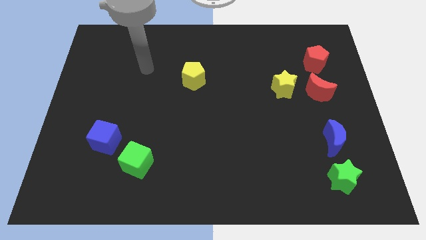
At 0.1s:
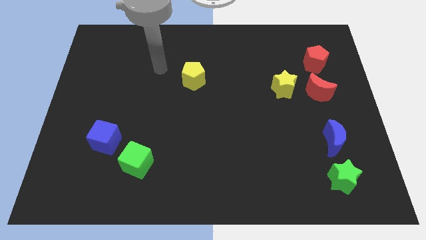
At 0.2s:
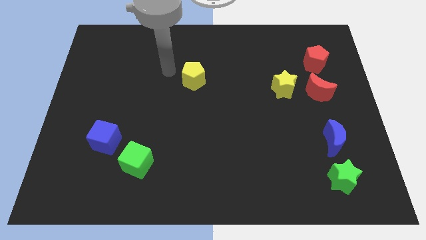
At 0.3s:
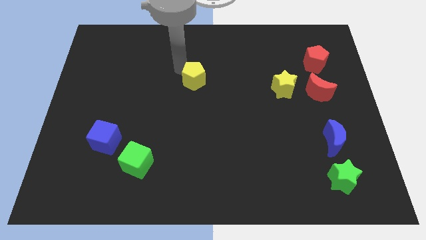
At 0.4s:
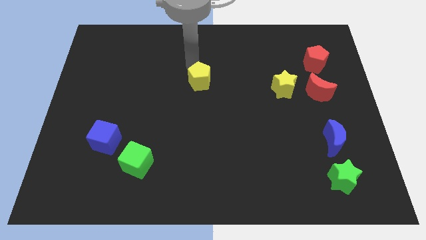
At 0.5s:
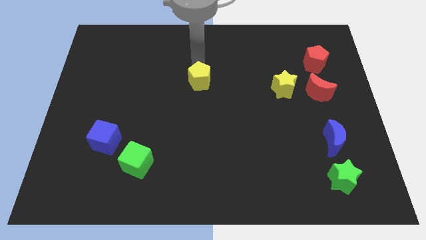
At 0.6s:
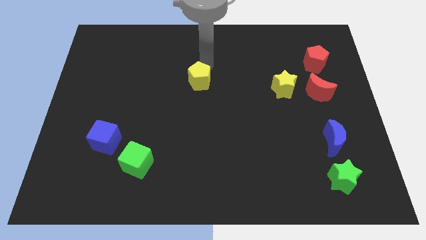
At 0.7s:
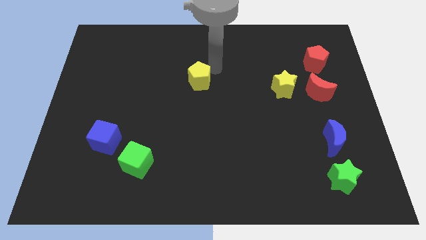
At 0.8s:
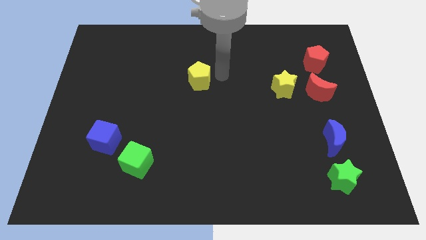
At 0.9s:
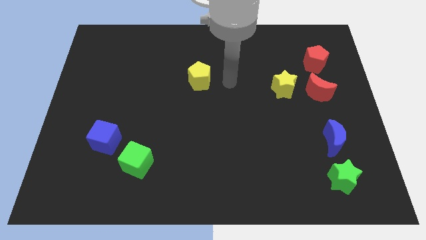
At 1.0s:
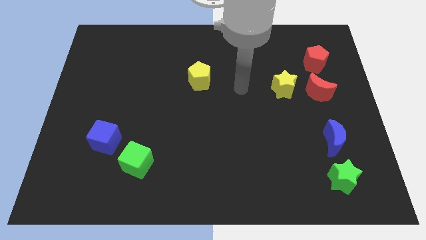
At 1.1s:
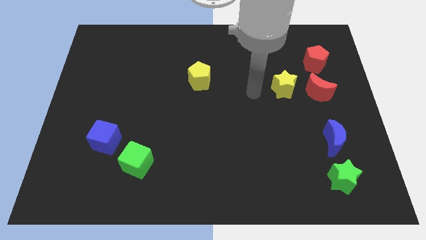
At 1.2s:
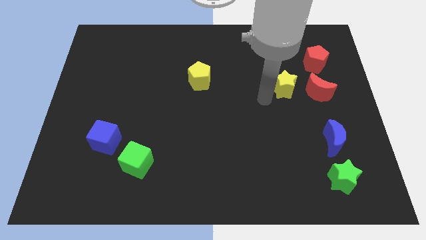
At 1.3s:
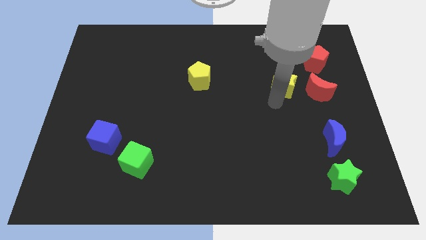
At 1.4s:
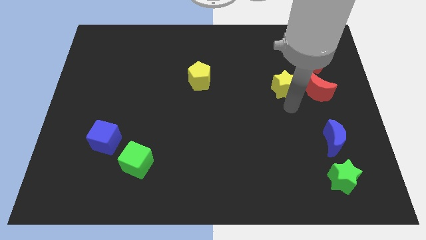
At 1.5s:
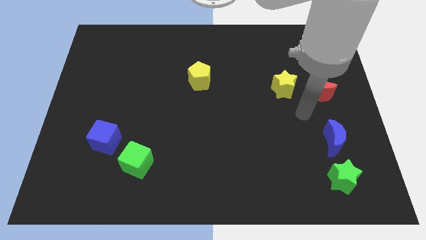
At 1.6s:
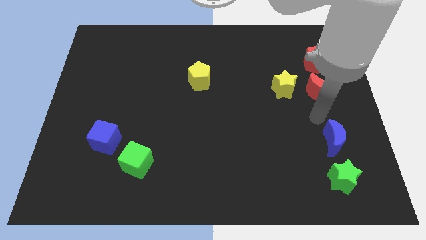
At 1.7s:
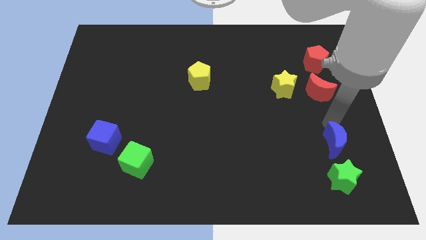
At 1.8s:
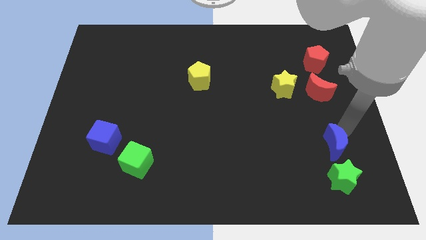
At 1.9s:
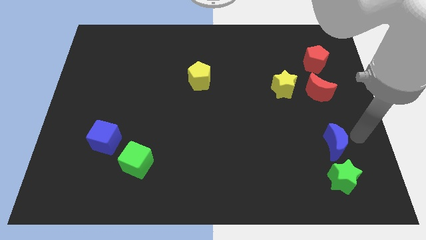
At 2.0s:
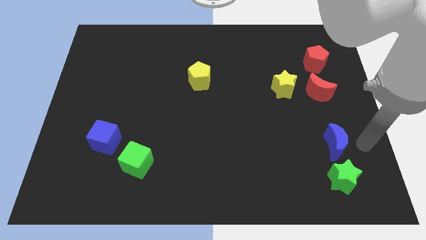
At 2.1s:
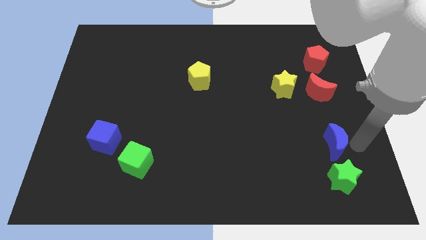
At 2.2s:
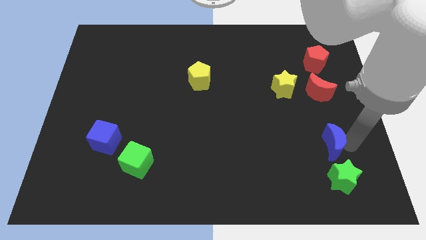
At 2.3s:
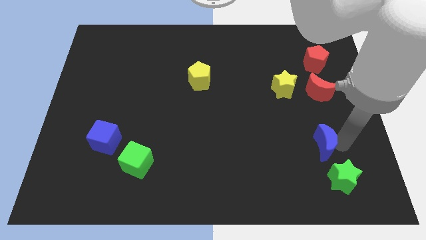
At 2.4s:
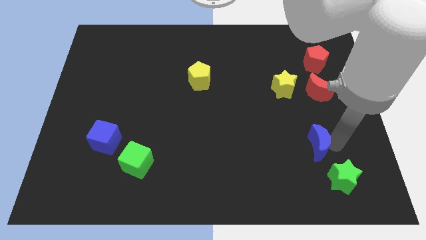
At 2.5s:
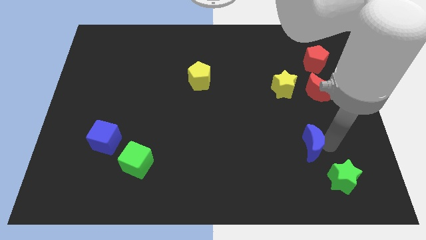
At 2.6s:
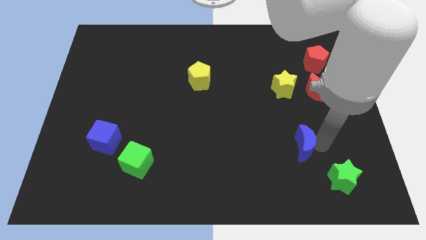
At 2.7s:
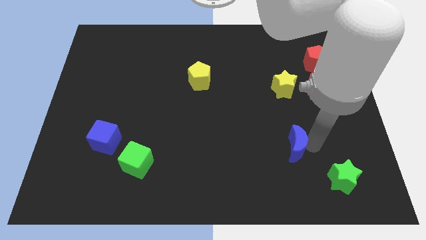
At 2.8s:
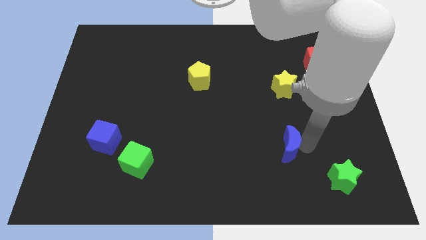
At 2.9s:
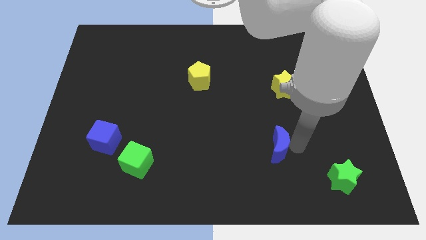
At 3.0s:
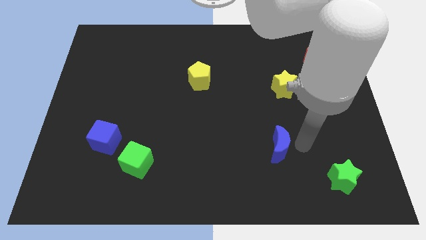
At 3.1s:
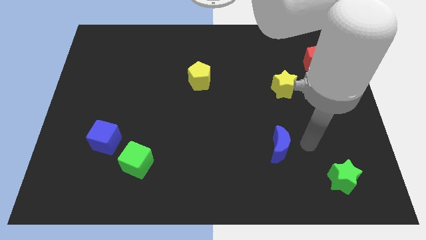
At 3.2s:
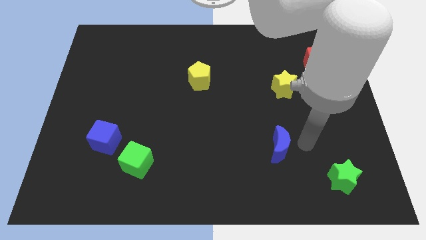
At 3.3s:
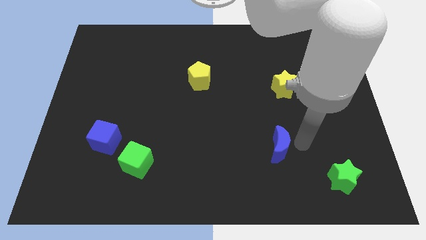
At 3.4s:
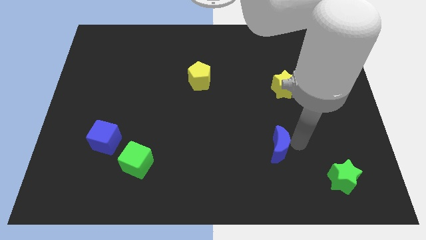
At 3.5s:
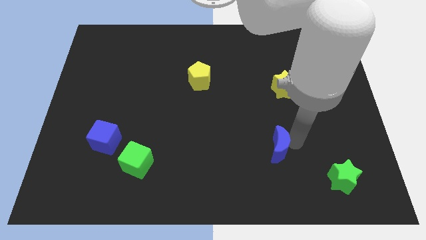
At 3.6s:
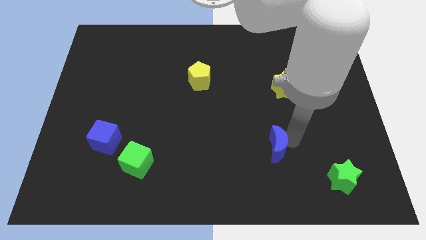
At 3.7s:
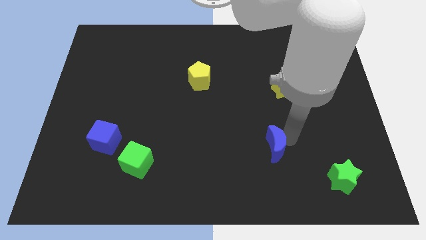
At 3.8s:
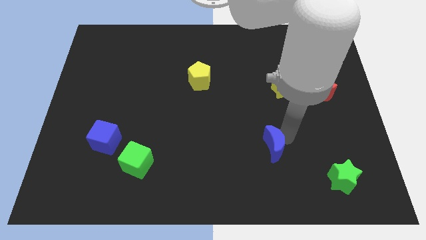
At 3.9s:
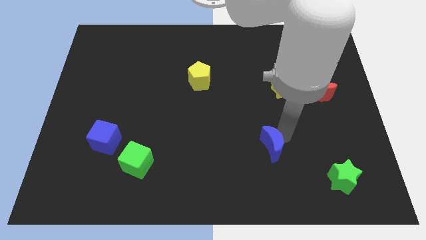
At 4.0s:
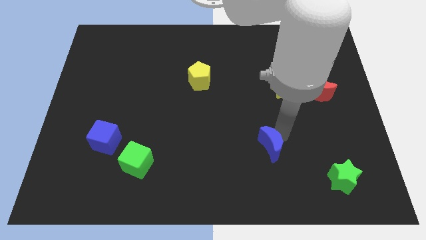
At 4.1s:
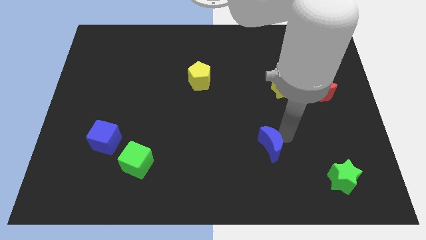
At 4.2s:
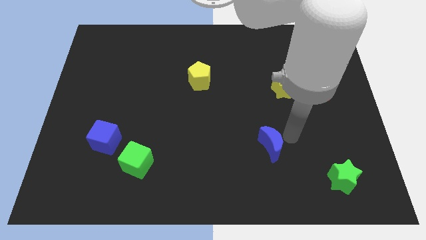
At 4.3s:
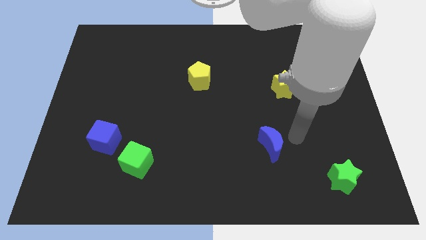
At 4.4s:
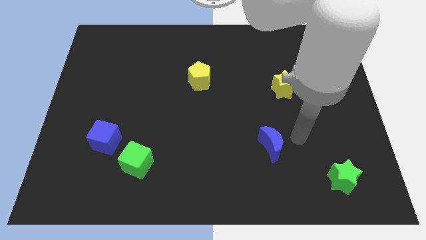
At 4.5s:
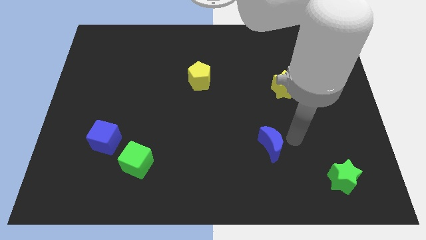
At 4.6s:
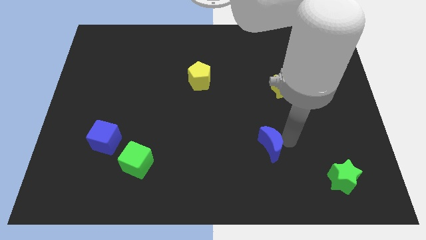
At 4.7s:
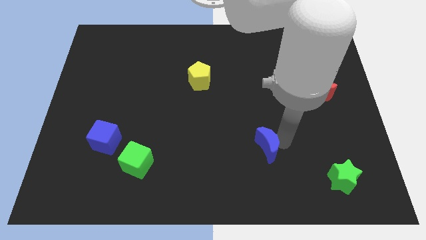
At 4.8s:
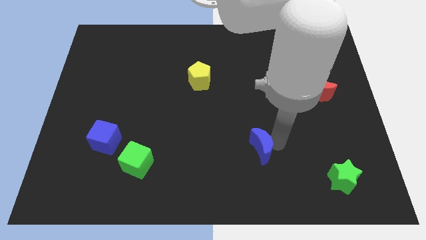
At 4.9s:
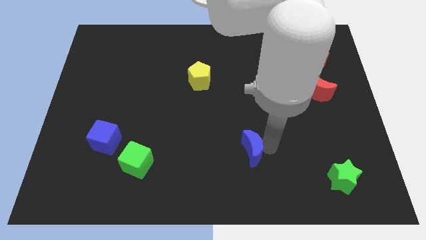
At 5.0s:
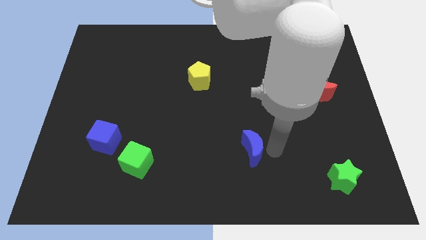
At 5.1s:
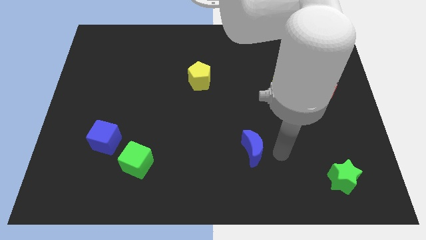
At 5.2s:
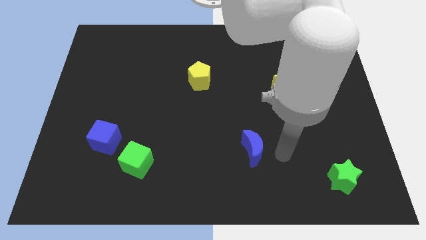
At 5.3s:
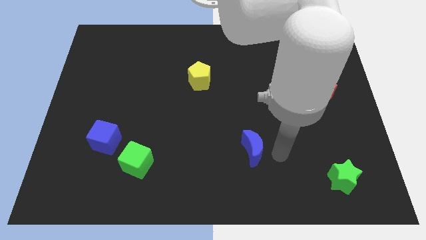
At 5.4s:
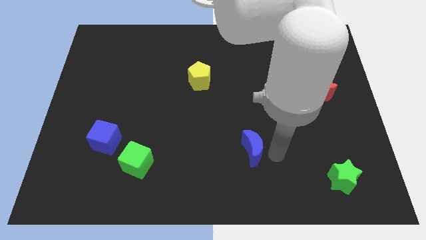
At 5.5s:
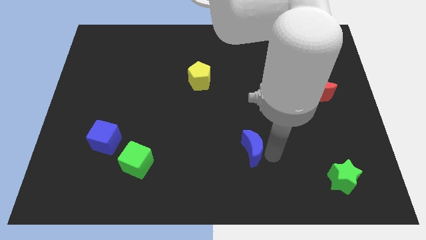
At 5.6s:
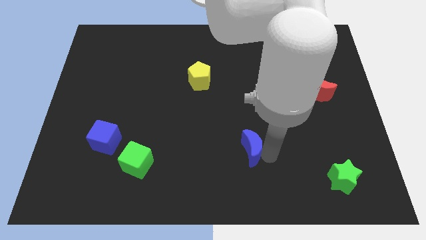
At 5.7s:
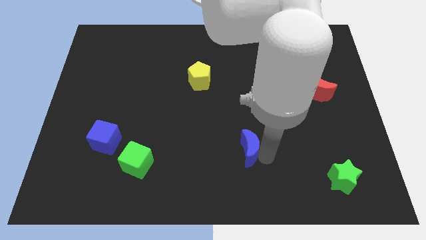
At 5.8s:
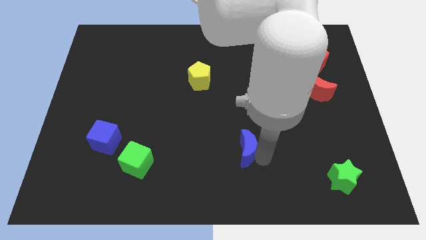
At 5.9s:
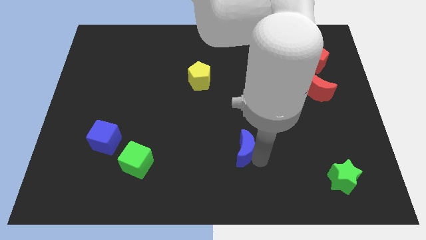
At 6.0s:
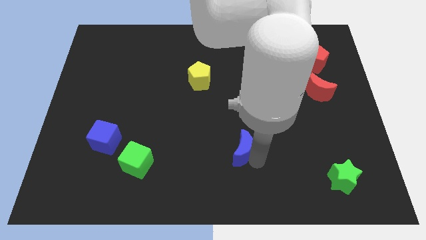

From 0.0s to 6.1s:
push the blue moon to the left

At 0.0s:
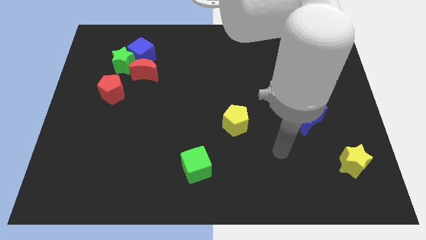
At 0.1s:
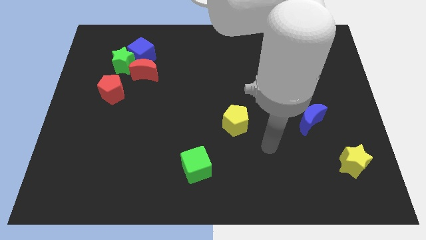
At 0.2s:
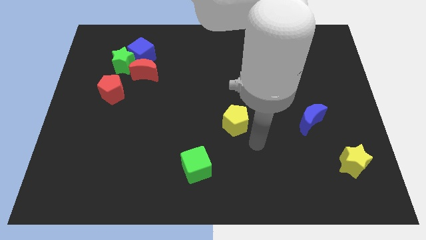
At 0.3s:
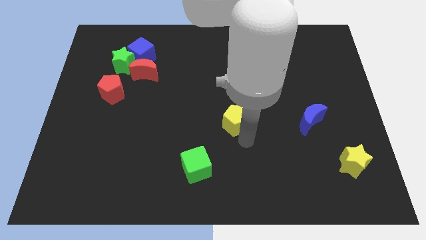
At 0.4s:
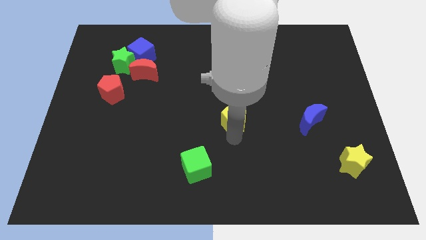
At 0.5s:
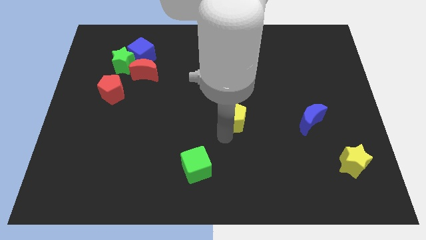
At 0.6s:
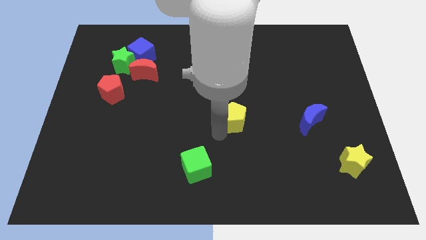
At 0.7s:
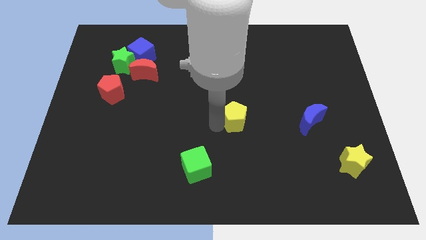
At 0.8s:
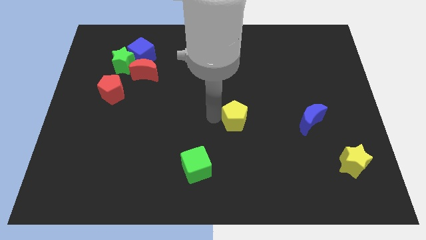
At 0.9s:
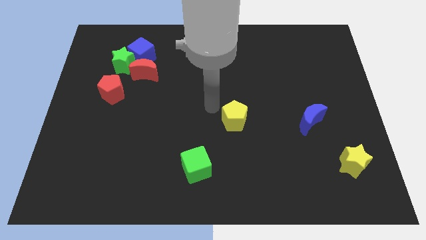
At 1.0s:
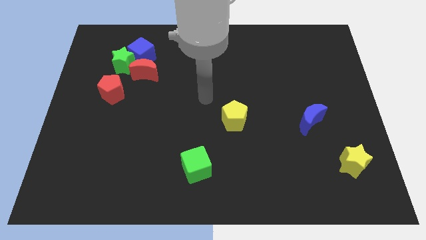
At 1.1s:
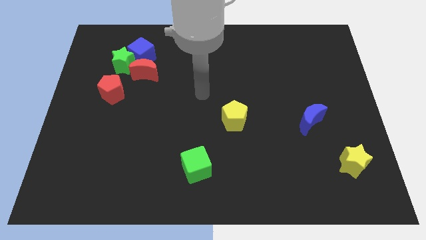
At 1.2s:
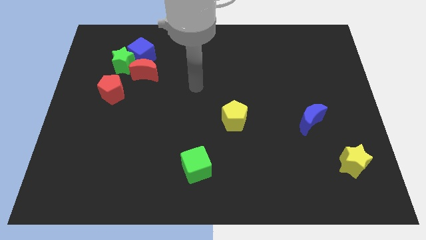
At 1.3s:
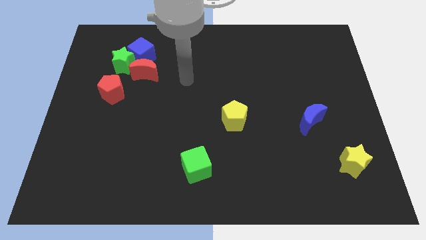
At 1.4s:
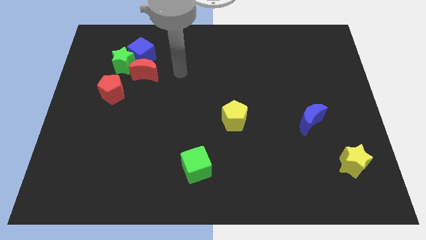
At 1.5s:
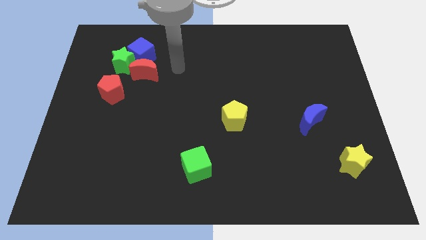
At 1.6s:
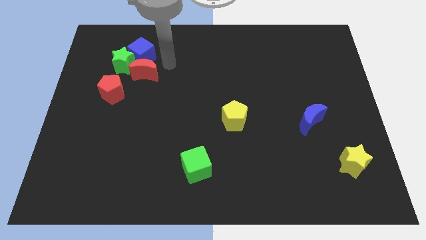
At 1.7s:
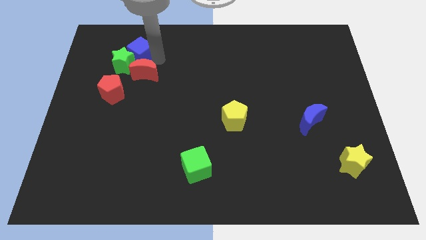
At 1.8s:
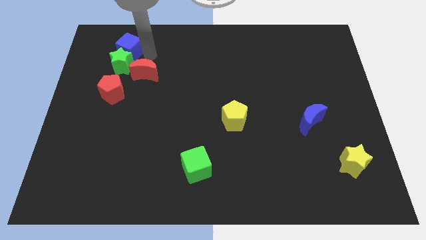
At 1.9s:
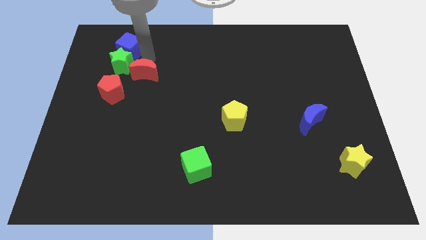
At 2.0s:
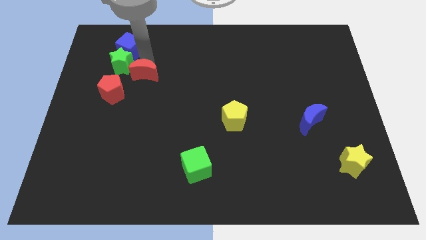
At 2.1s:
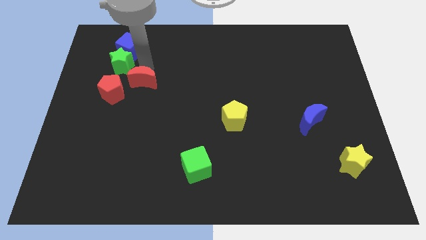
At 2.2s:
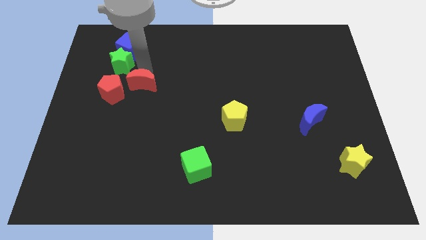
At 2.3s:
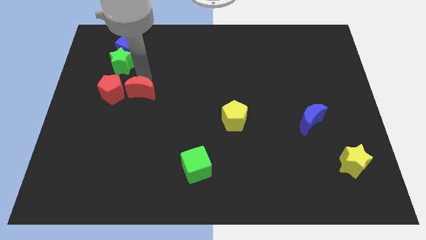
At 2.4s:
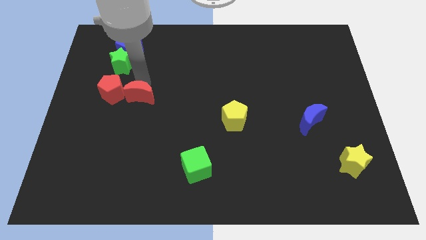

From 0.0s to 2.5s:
move the red moon a bit downwards
